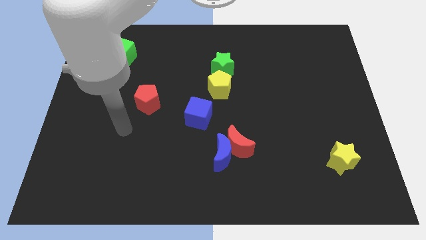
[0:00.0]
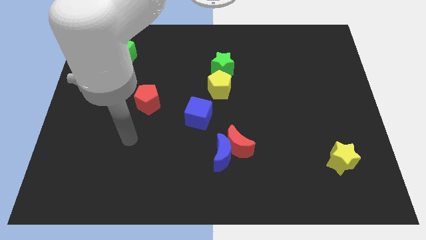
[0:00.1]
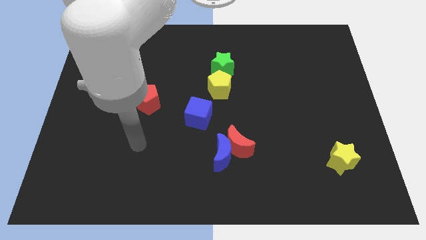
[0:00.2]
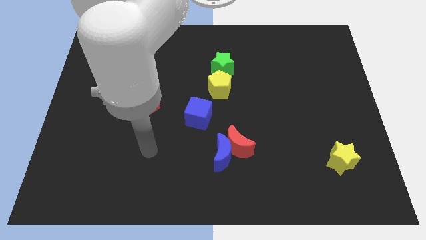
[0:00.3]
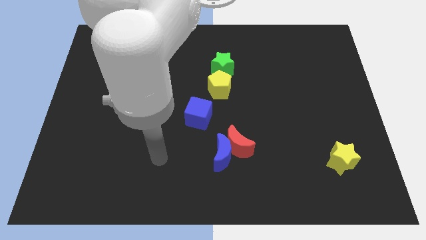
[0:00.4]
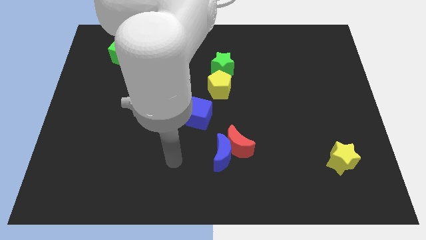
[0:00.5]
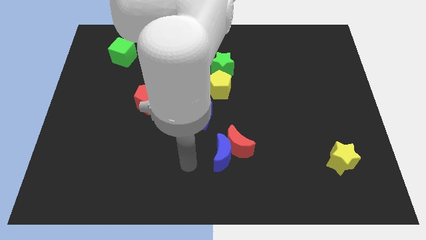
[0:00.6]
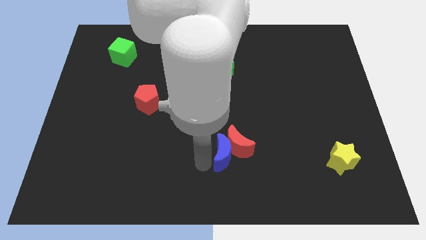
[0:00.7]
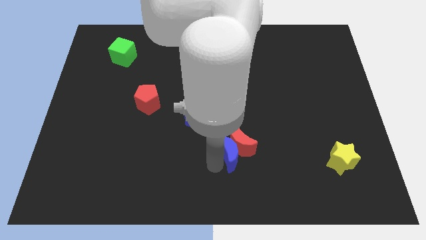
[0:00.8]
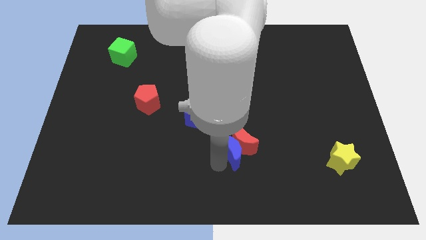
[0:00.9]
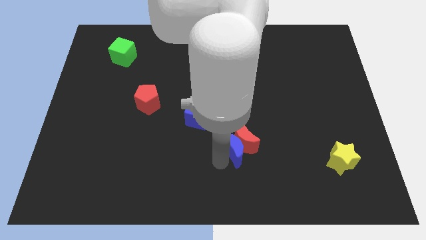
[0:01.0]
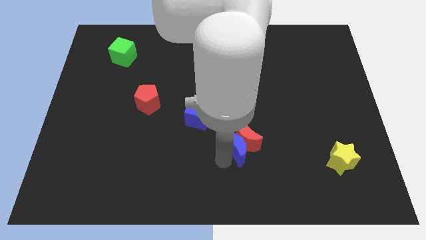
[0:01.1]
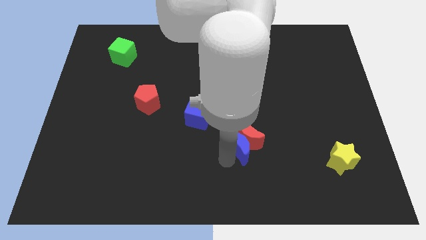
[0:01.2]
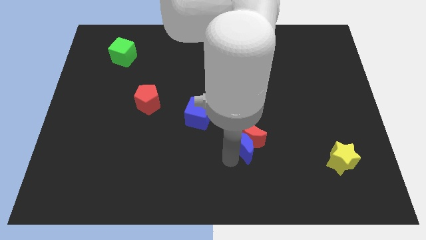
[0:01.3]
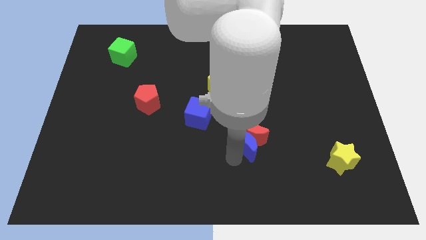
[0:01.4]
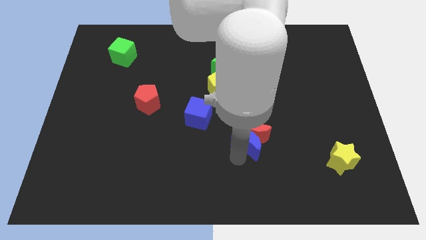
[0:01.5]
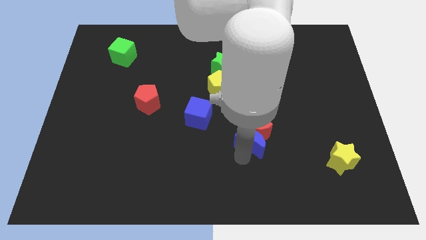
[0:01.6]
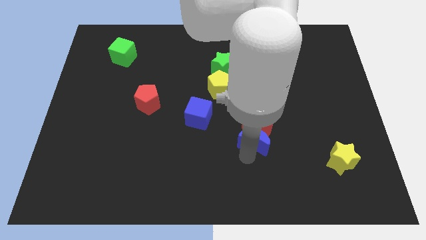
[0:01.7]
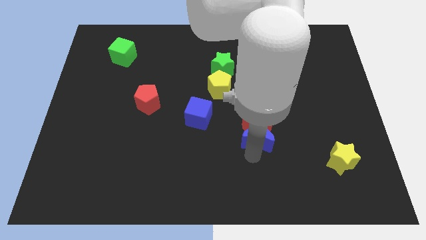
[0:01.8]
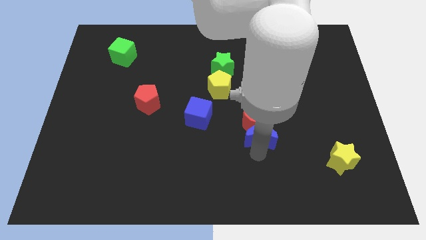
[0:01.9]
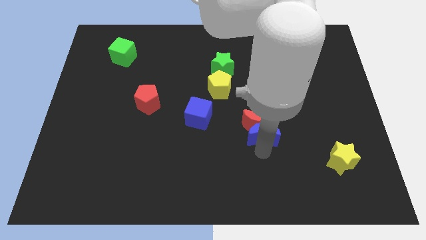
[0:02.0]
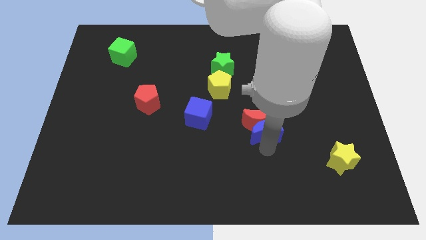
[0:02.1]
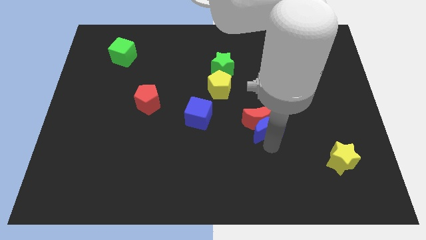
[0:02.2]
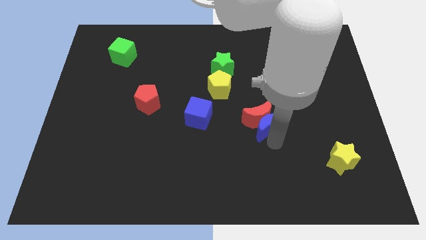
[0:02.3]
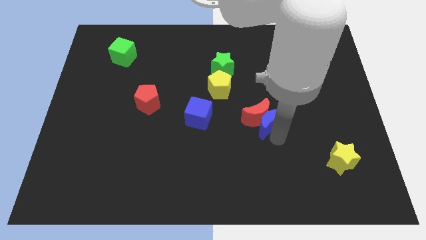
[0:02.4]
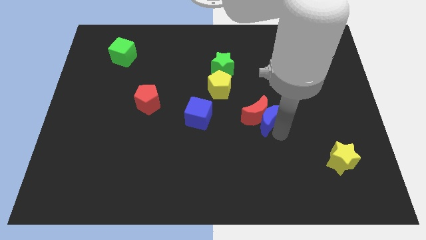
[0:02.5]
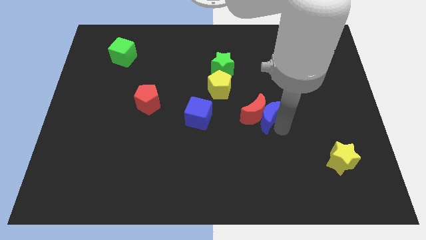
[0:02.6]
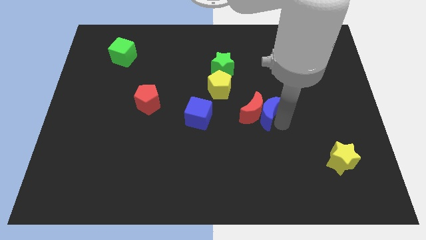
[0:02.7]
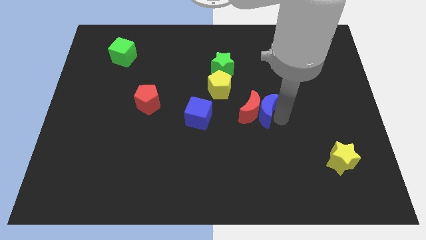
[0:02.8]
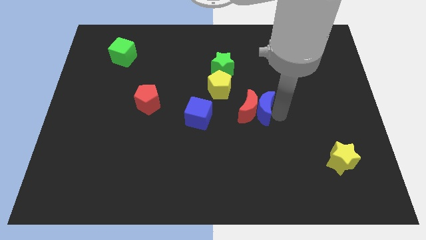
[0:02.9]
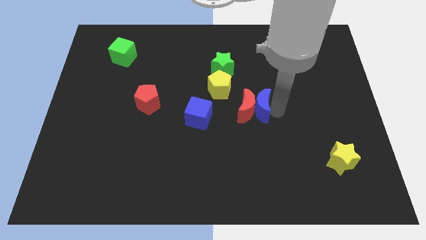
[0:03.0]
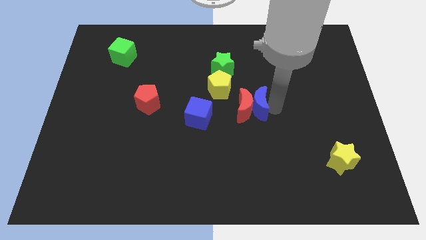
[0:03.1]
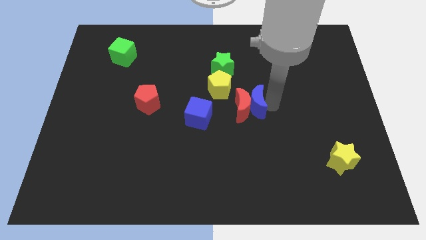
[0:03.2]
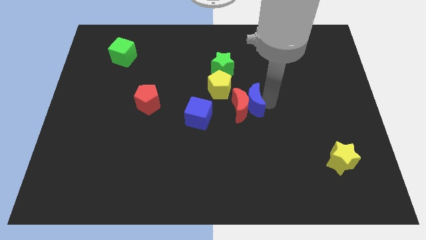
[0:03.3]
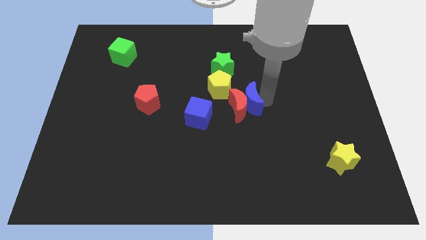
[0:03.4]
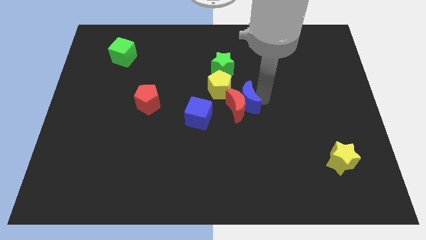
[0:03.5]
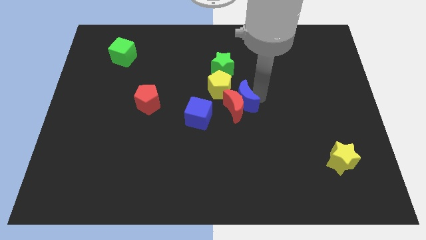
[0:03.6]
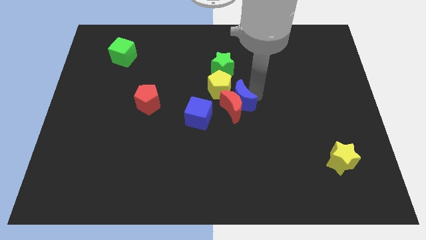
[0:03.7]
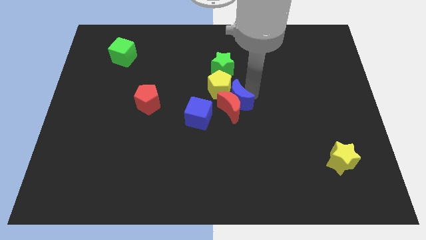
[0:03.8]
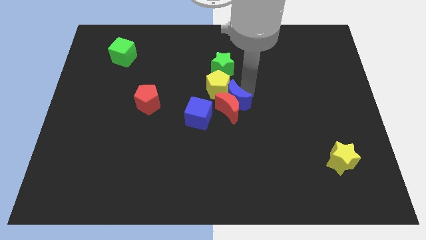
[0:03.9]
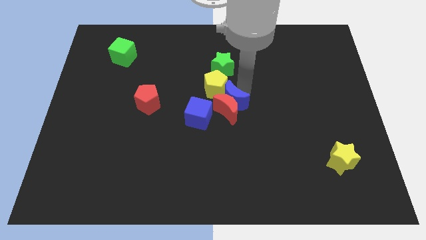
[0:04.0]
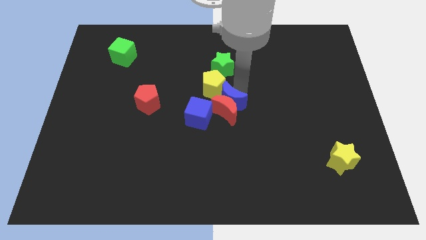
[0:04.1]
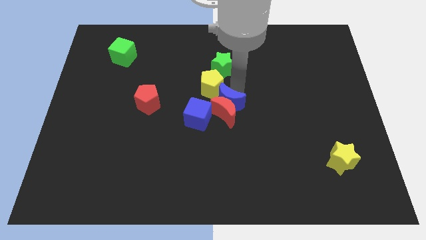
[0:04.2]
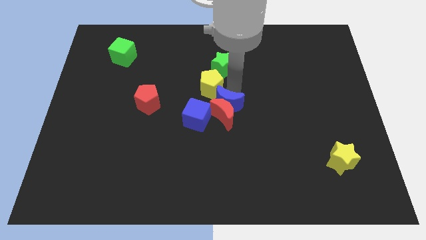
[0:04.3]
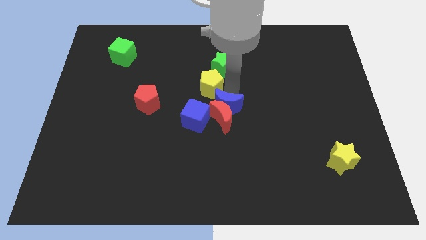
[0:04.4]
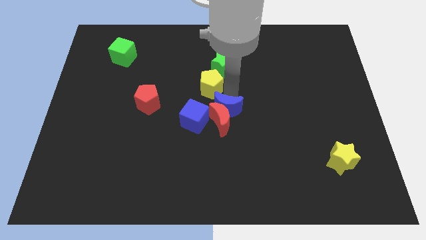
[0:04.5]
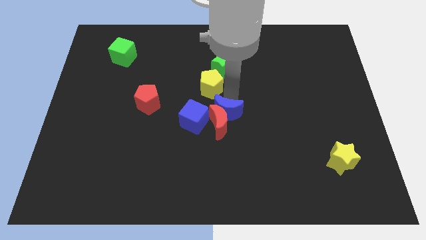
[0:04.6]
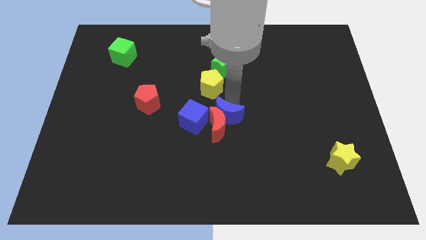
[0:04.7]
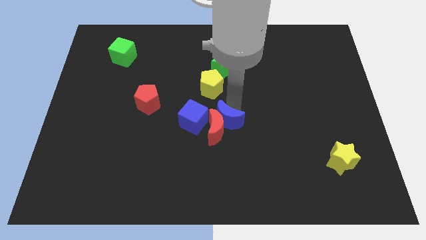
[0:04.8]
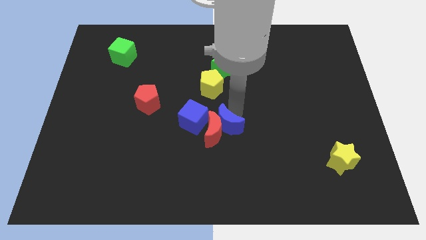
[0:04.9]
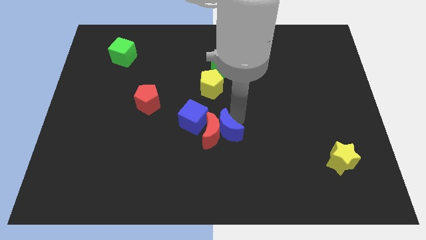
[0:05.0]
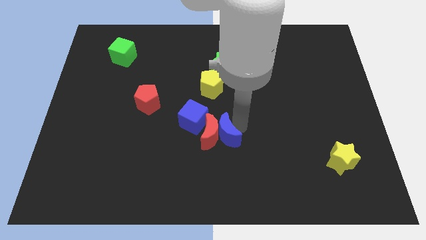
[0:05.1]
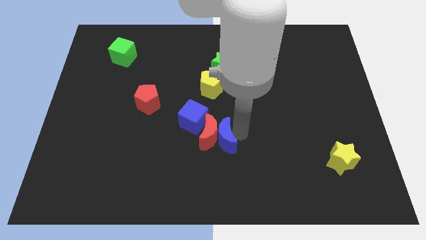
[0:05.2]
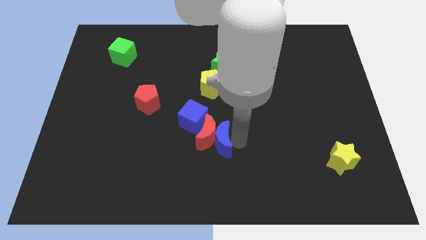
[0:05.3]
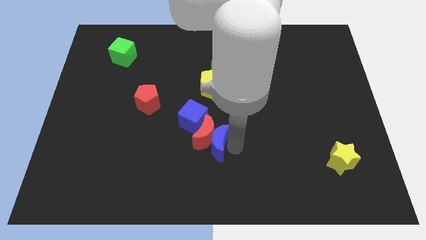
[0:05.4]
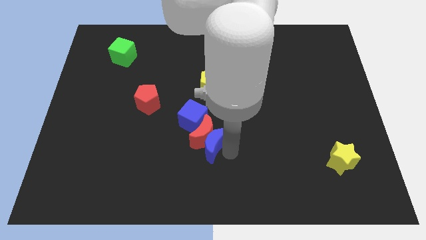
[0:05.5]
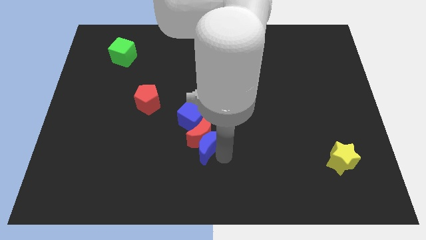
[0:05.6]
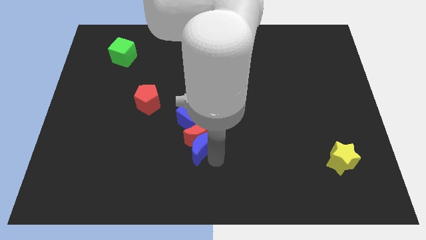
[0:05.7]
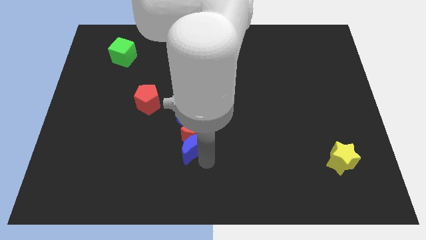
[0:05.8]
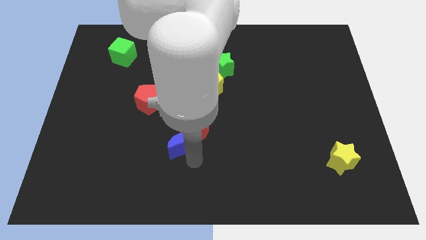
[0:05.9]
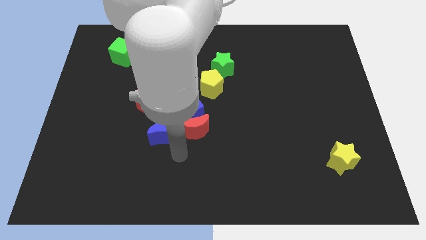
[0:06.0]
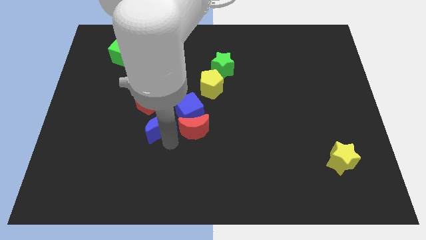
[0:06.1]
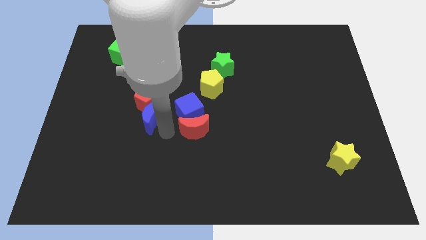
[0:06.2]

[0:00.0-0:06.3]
pull the red moon apart from the blue moon

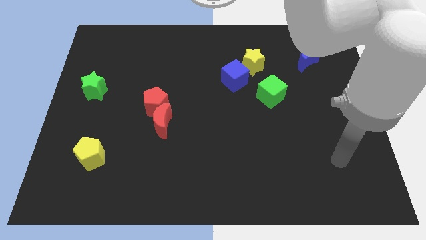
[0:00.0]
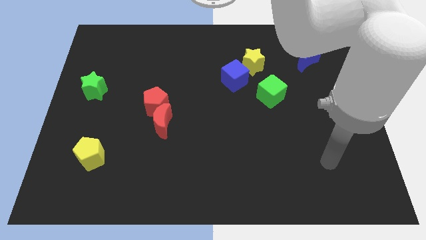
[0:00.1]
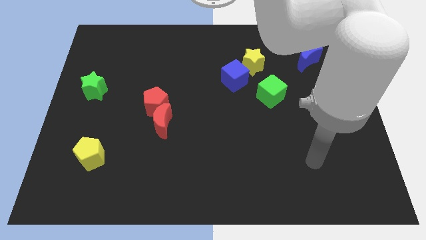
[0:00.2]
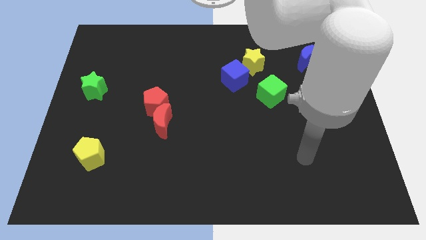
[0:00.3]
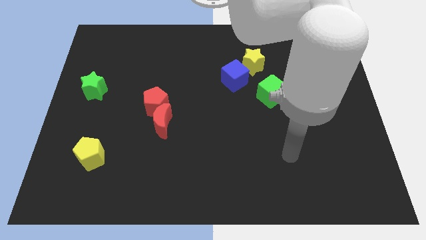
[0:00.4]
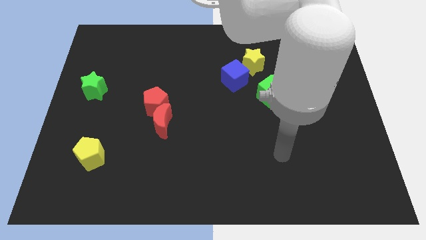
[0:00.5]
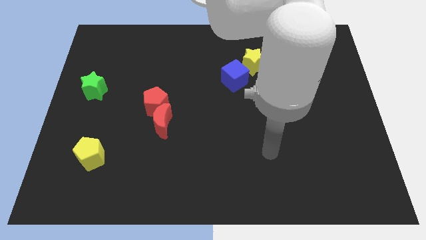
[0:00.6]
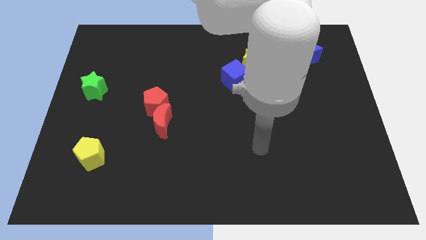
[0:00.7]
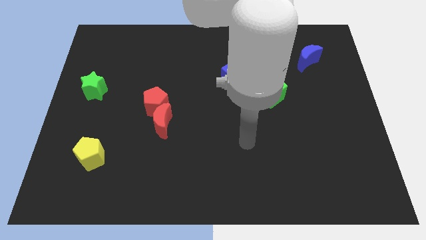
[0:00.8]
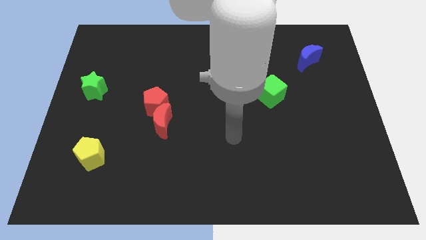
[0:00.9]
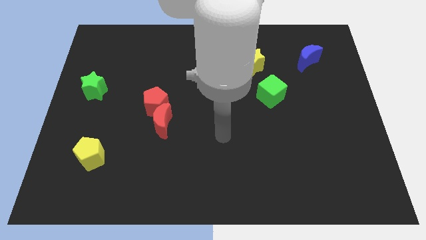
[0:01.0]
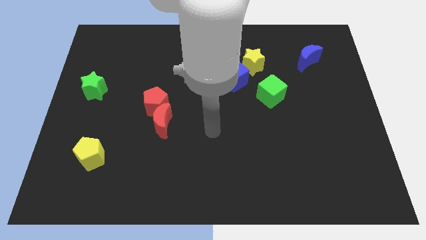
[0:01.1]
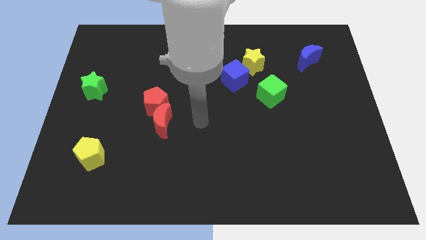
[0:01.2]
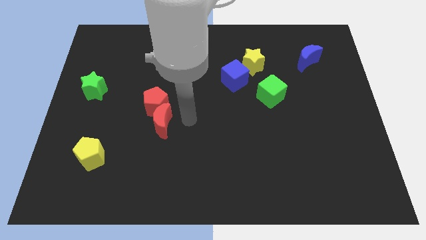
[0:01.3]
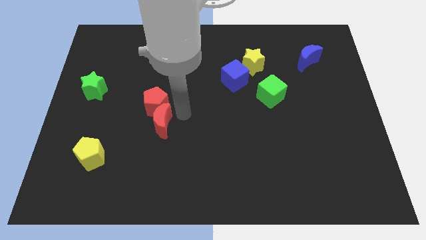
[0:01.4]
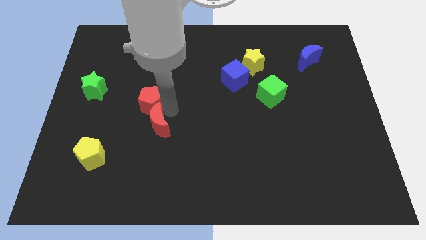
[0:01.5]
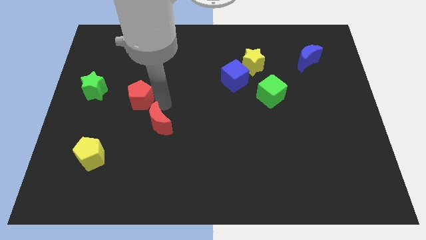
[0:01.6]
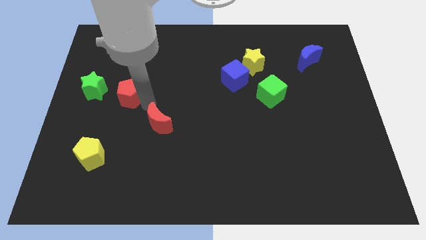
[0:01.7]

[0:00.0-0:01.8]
pull the red moon apart from the red pentagon

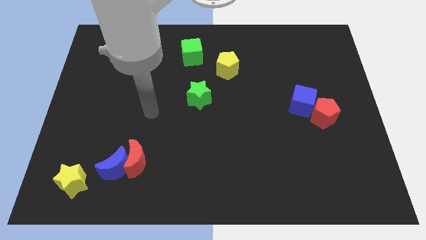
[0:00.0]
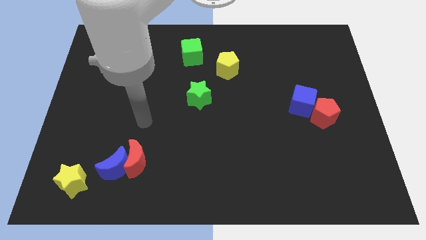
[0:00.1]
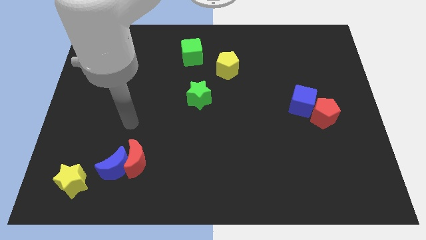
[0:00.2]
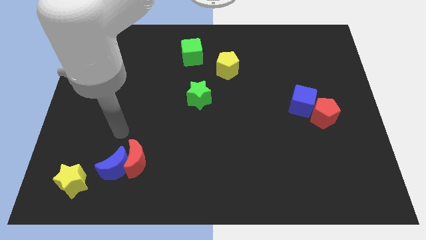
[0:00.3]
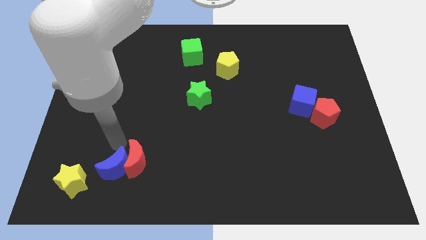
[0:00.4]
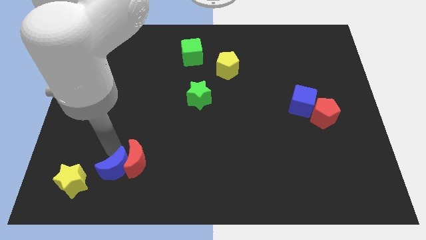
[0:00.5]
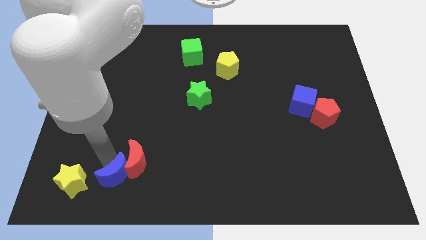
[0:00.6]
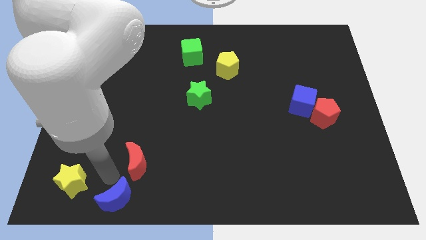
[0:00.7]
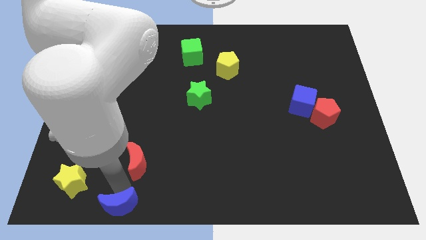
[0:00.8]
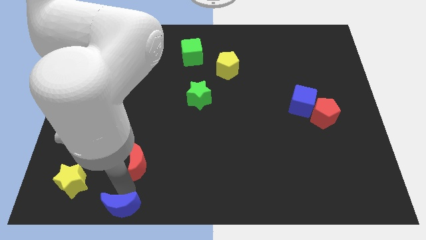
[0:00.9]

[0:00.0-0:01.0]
move the red moon away from the blue moon

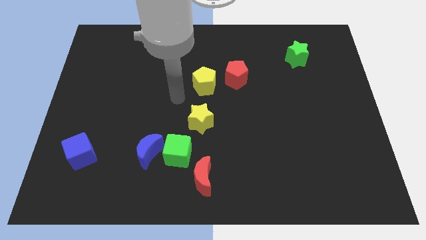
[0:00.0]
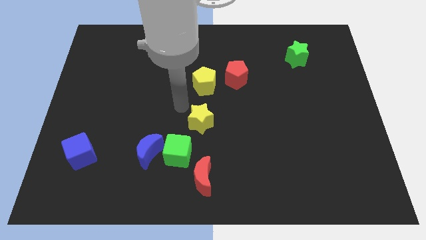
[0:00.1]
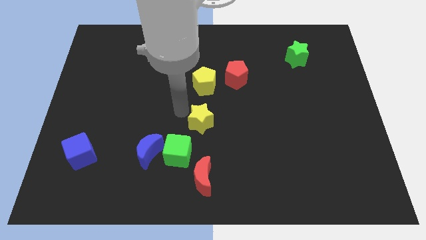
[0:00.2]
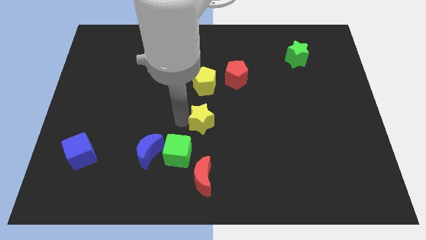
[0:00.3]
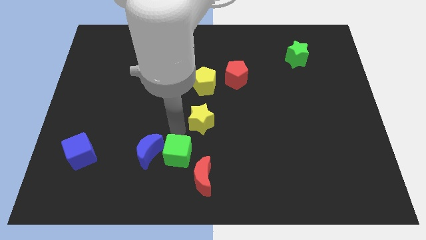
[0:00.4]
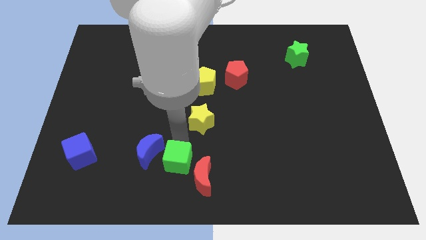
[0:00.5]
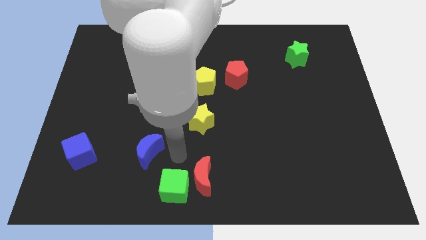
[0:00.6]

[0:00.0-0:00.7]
pull the blue moon apart from the green cube
